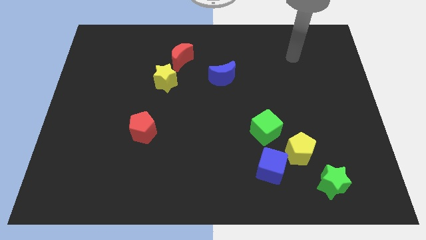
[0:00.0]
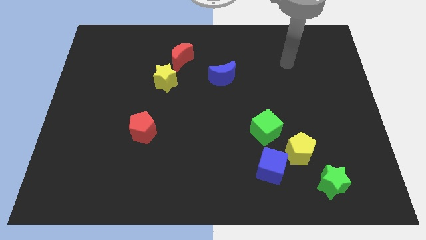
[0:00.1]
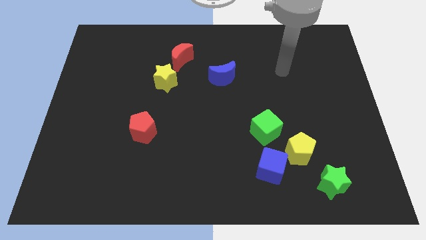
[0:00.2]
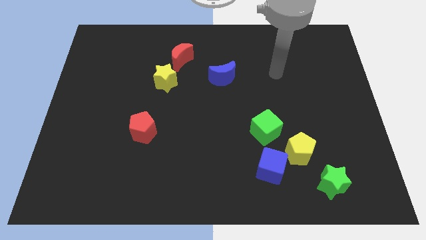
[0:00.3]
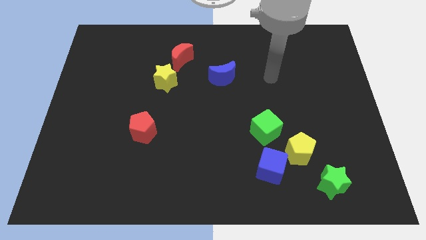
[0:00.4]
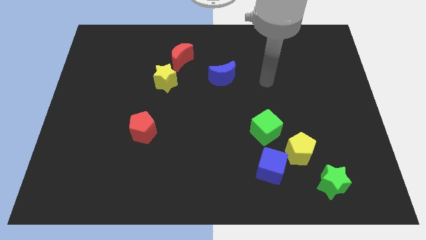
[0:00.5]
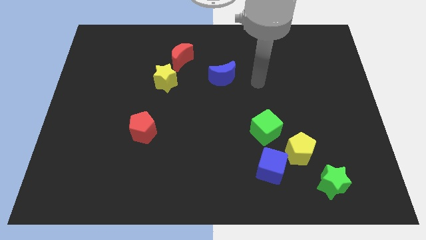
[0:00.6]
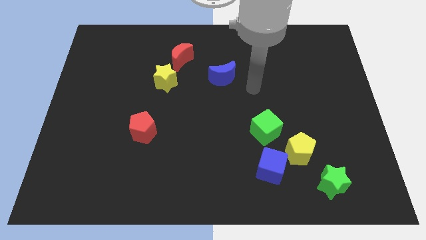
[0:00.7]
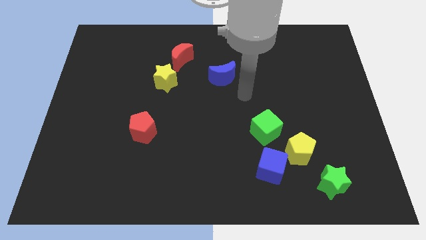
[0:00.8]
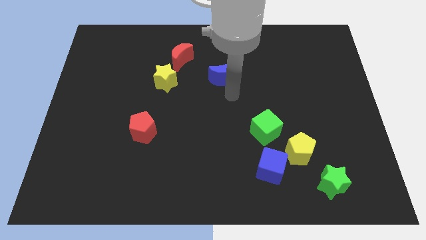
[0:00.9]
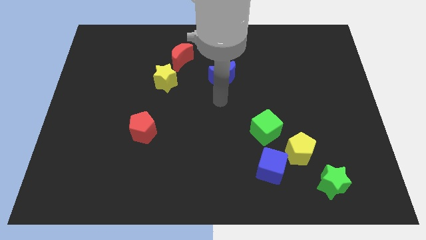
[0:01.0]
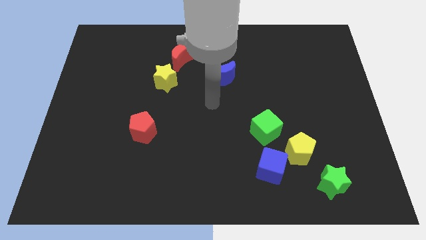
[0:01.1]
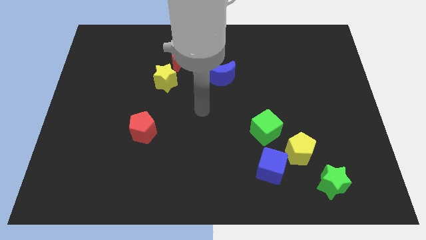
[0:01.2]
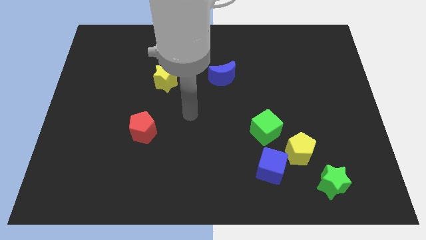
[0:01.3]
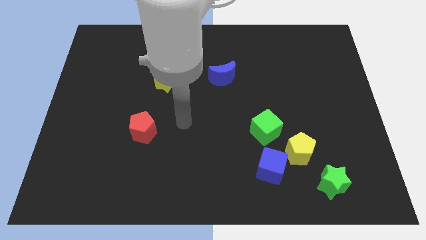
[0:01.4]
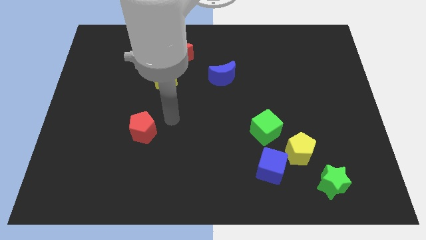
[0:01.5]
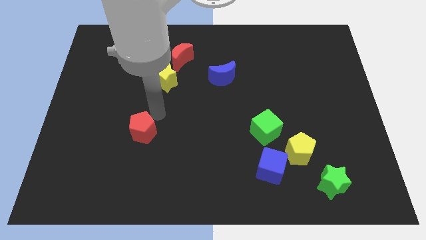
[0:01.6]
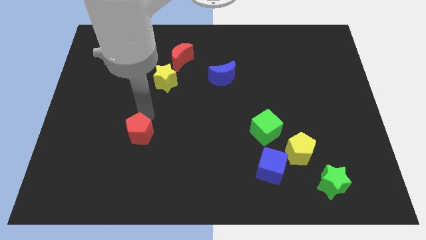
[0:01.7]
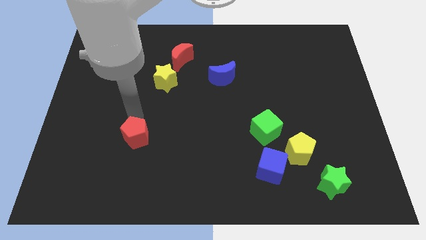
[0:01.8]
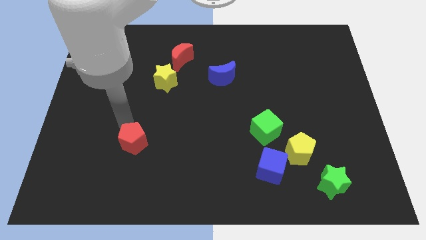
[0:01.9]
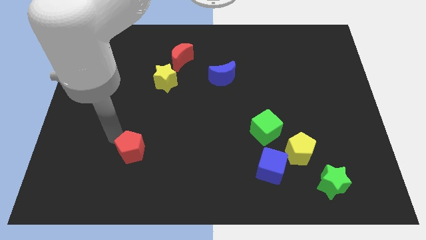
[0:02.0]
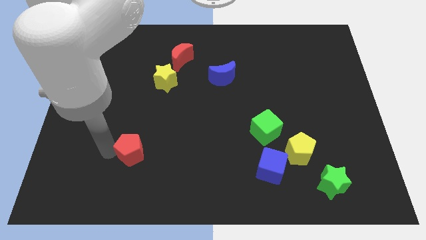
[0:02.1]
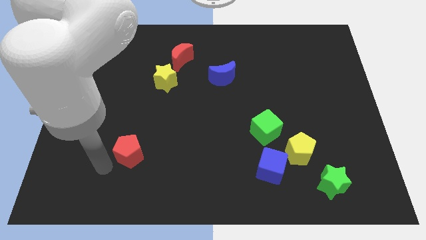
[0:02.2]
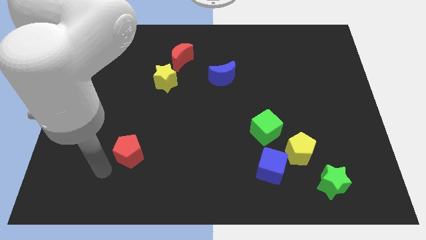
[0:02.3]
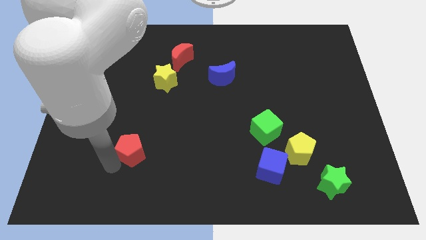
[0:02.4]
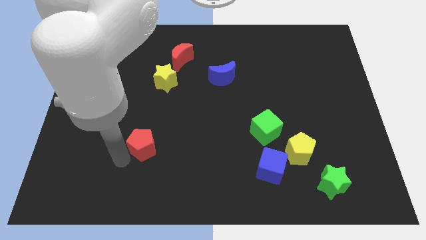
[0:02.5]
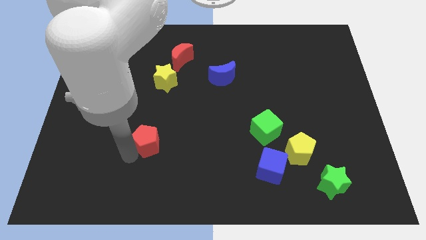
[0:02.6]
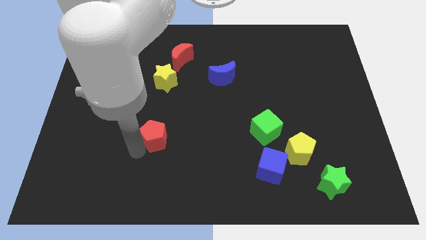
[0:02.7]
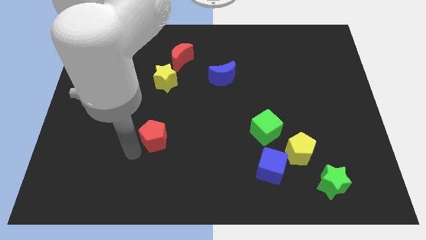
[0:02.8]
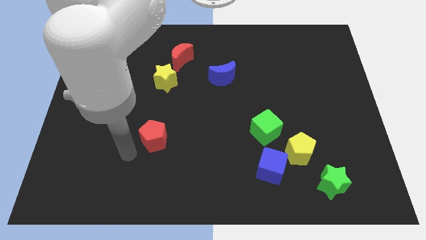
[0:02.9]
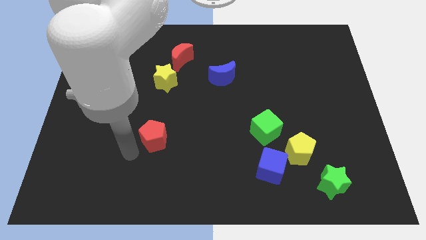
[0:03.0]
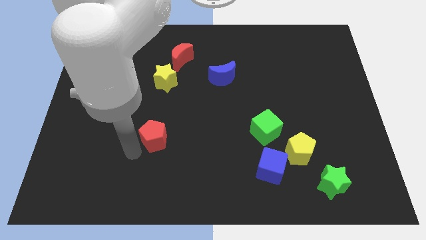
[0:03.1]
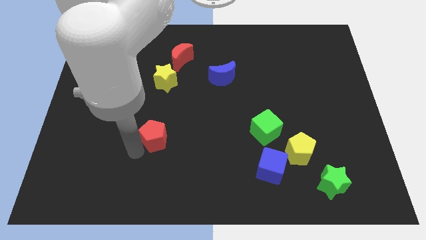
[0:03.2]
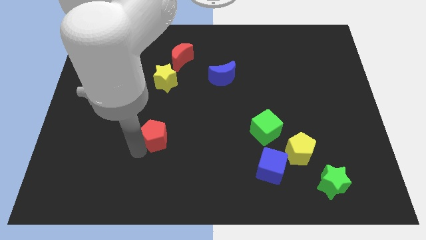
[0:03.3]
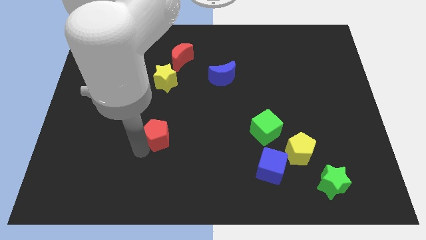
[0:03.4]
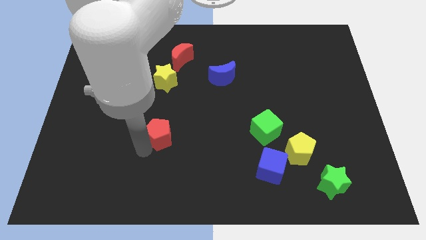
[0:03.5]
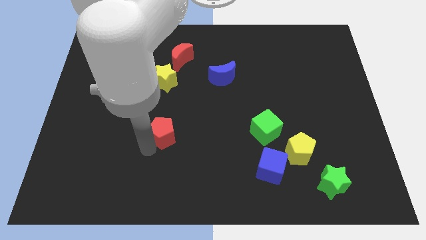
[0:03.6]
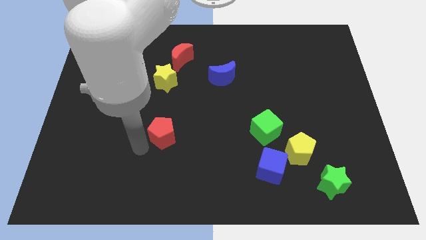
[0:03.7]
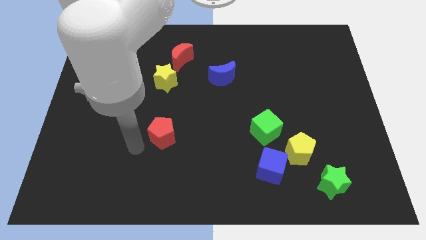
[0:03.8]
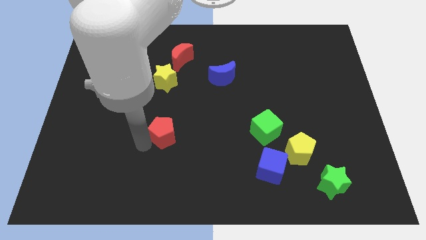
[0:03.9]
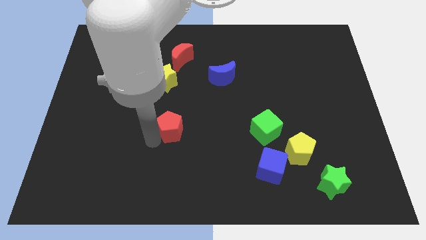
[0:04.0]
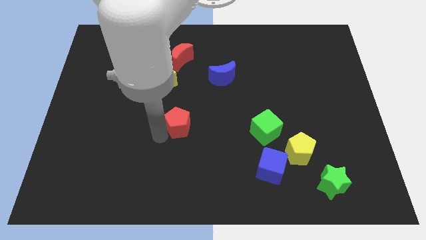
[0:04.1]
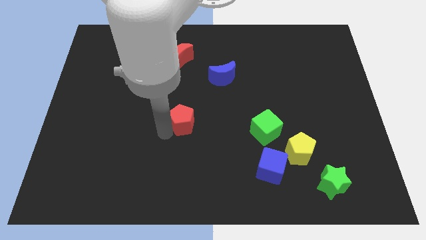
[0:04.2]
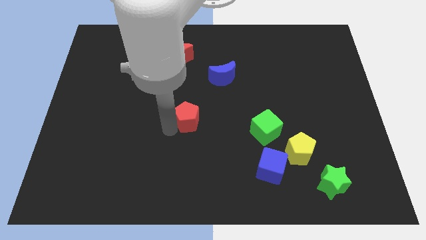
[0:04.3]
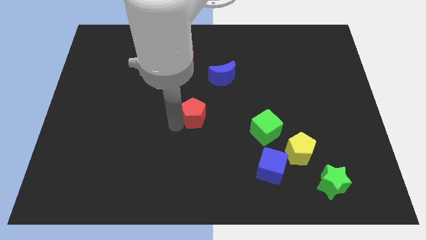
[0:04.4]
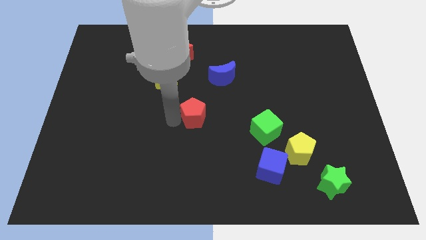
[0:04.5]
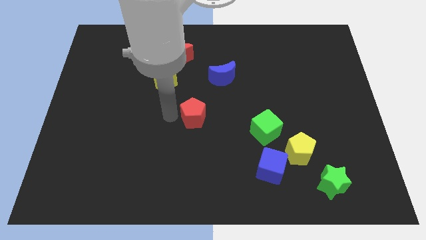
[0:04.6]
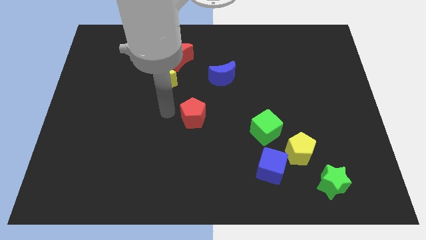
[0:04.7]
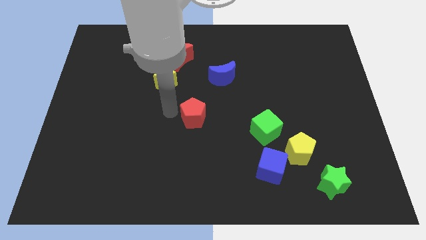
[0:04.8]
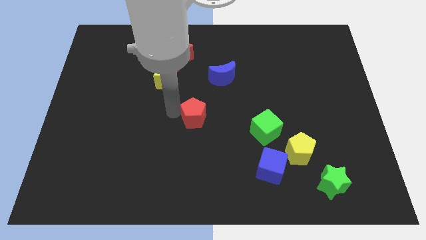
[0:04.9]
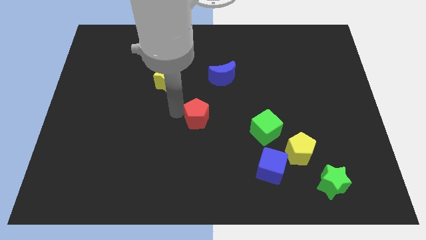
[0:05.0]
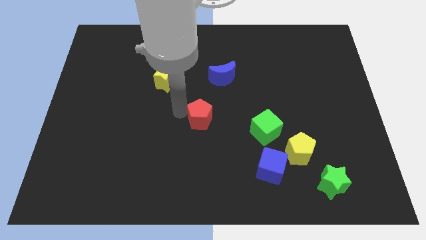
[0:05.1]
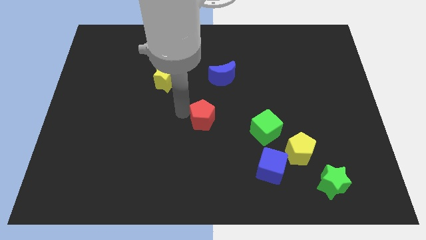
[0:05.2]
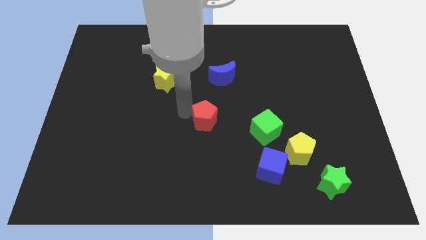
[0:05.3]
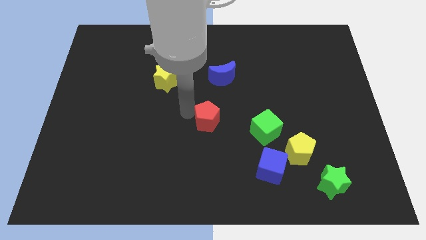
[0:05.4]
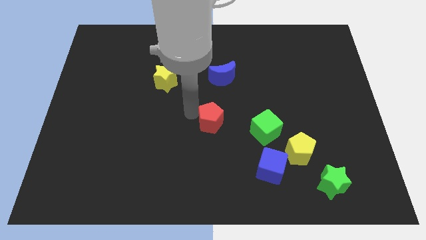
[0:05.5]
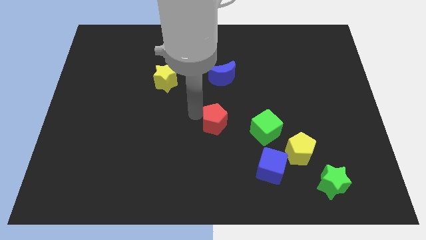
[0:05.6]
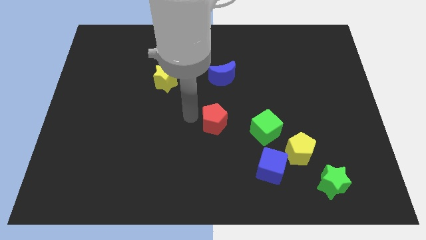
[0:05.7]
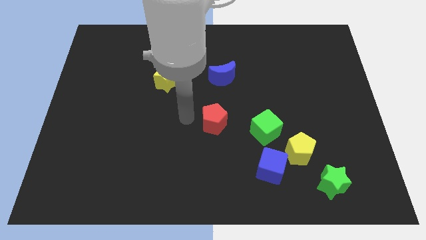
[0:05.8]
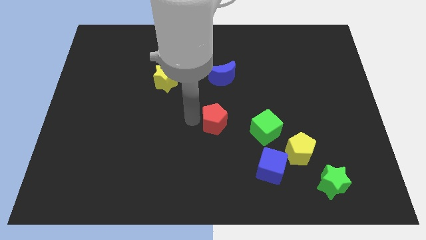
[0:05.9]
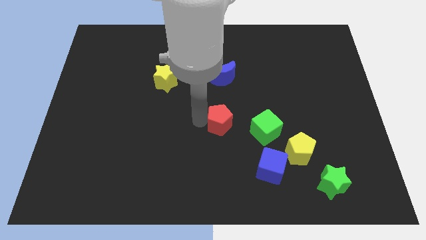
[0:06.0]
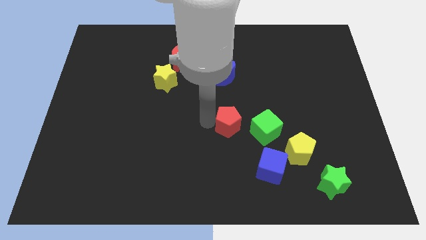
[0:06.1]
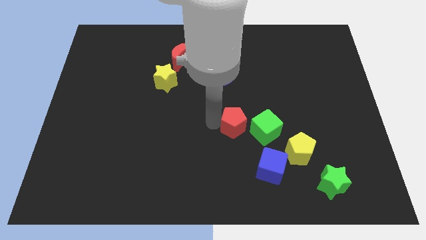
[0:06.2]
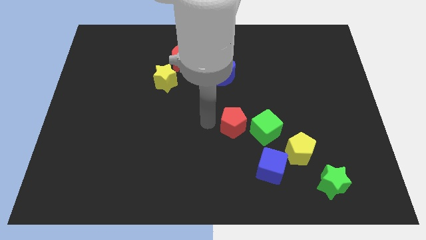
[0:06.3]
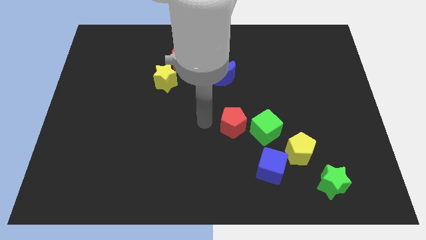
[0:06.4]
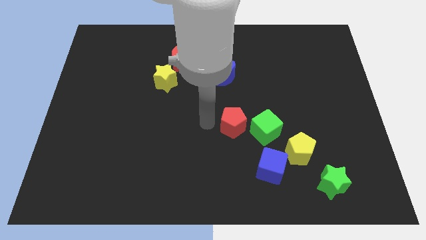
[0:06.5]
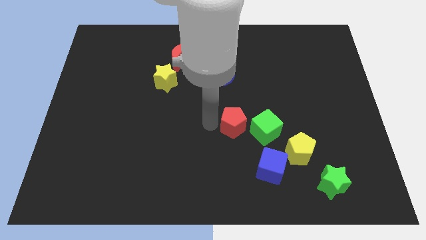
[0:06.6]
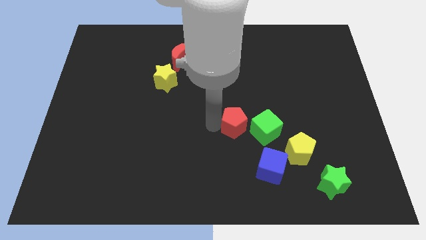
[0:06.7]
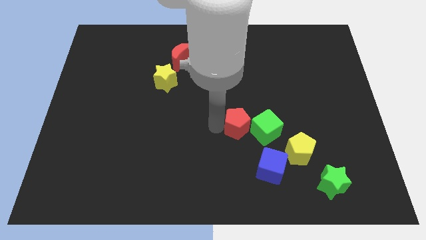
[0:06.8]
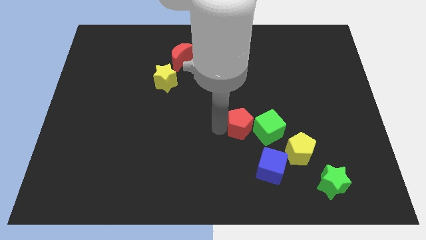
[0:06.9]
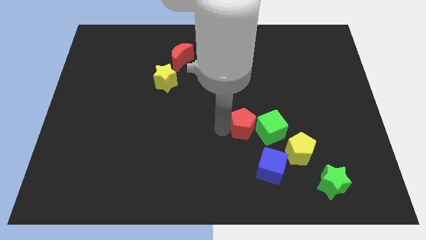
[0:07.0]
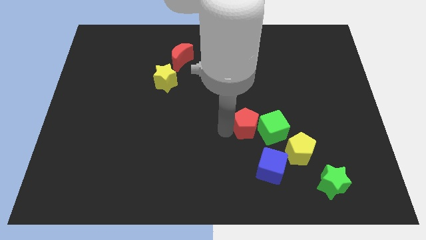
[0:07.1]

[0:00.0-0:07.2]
push the red pentagon next to the green cube

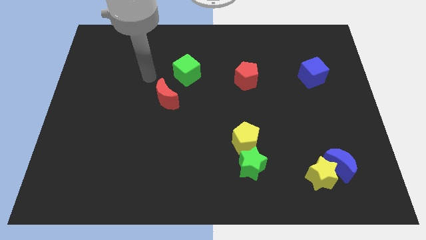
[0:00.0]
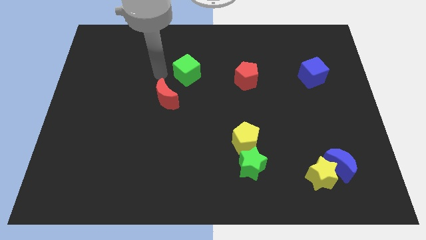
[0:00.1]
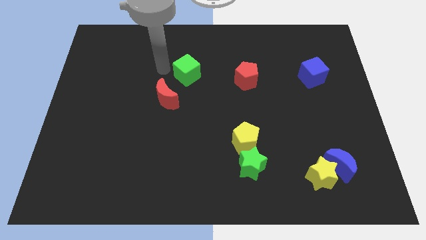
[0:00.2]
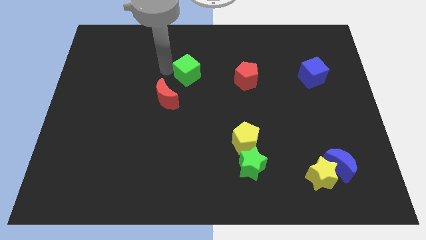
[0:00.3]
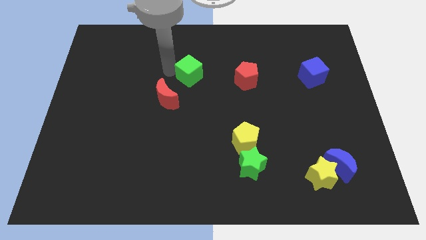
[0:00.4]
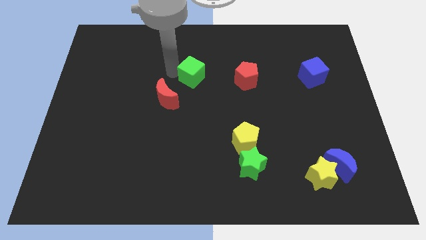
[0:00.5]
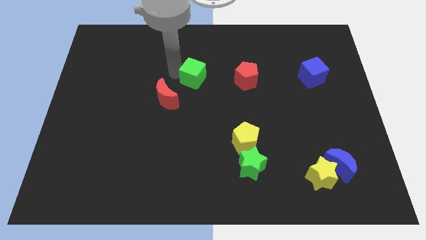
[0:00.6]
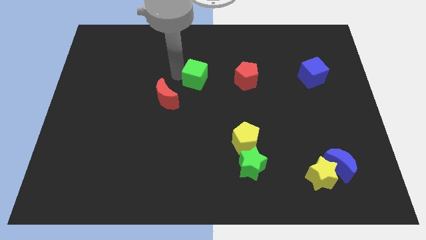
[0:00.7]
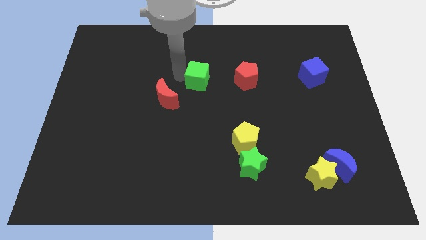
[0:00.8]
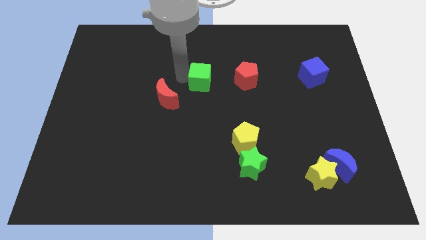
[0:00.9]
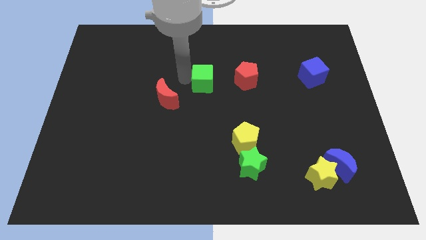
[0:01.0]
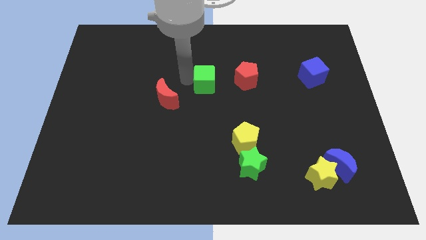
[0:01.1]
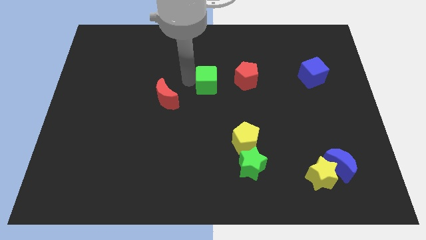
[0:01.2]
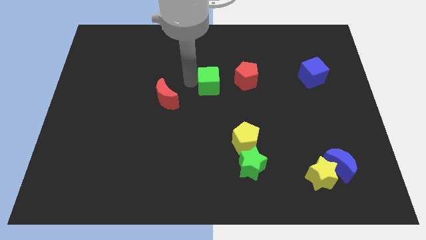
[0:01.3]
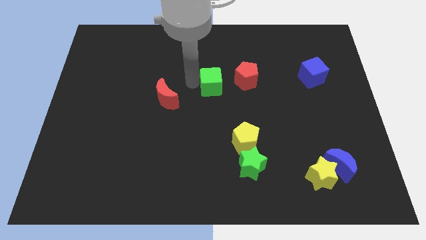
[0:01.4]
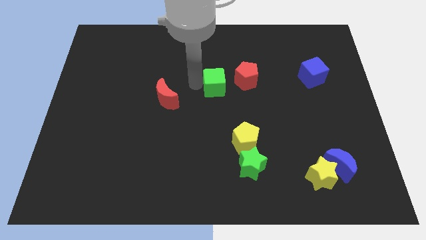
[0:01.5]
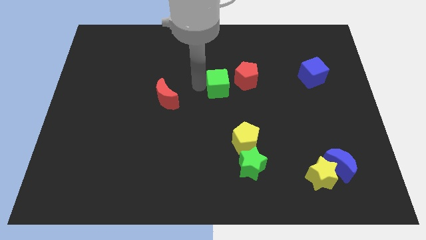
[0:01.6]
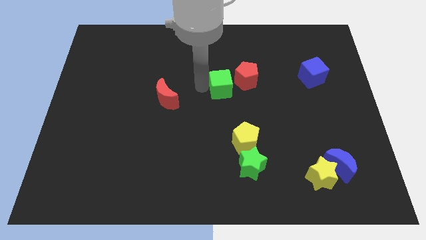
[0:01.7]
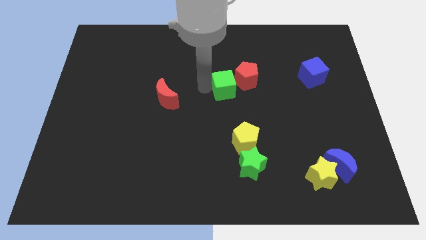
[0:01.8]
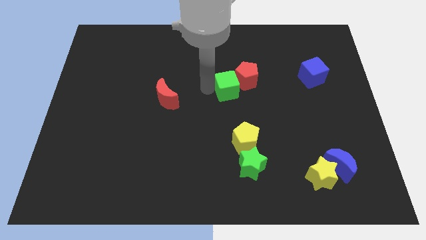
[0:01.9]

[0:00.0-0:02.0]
slide the green cube close to the red pentagon
